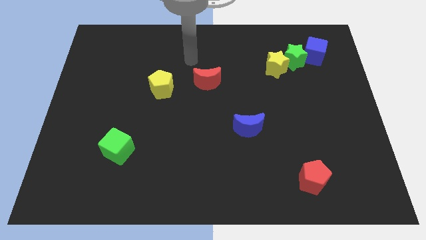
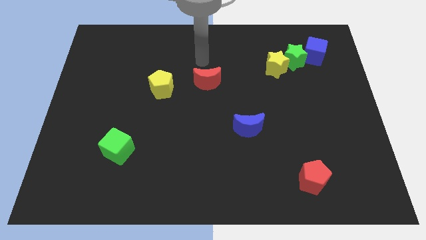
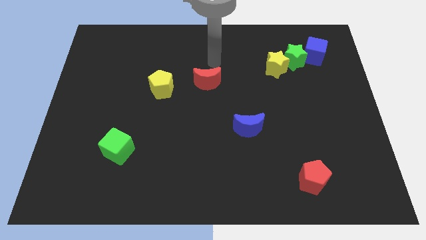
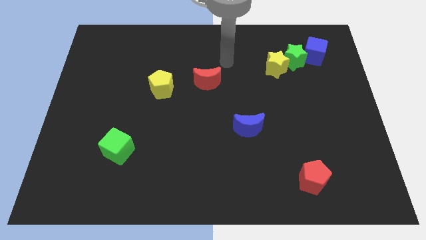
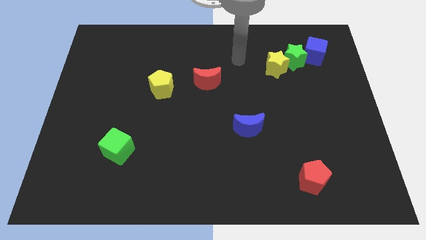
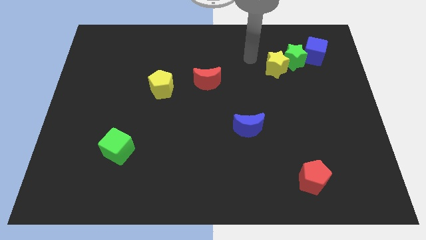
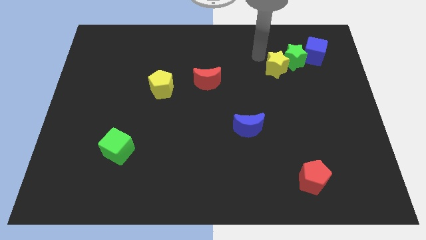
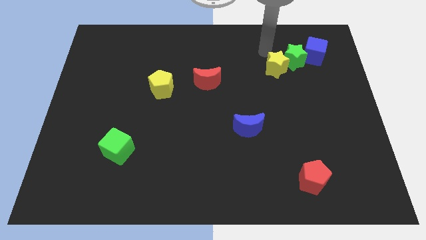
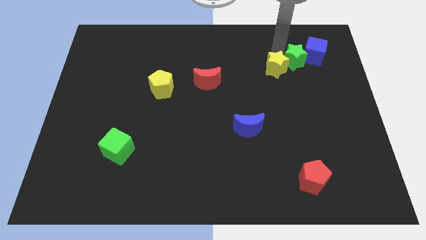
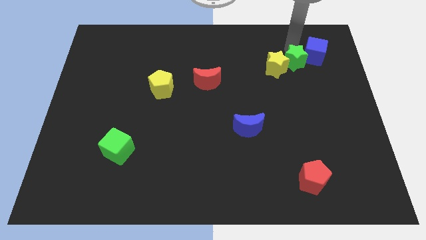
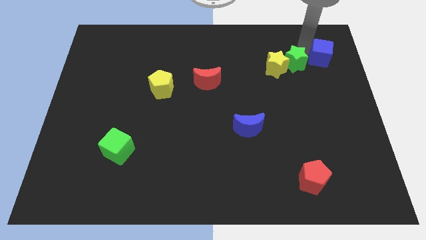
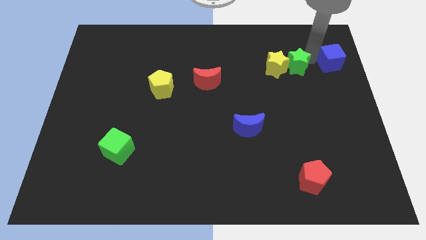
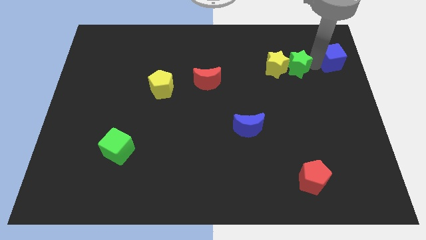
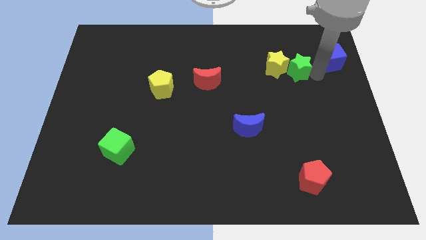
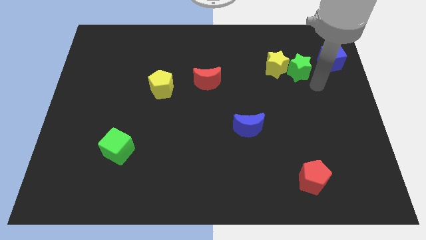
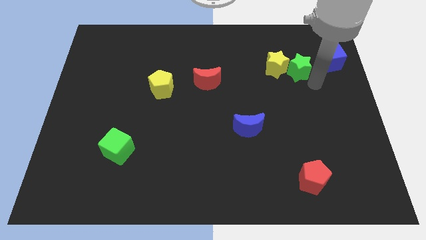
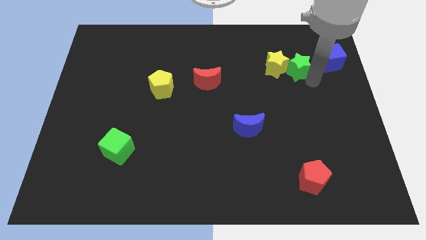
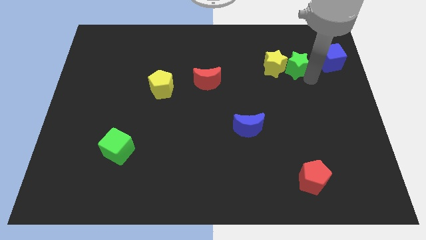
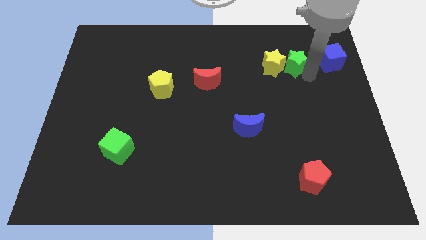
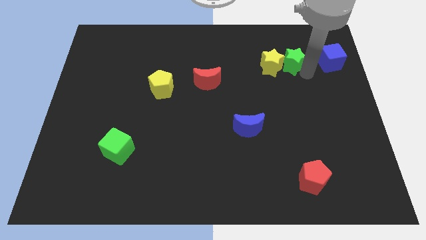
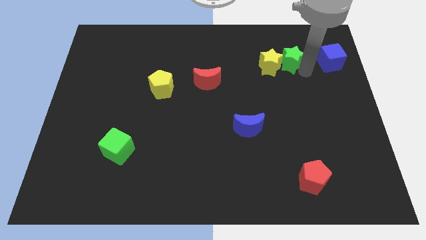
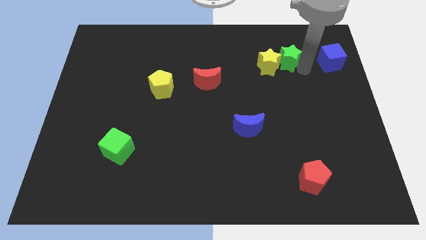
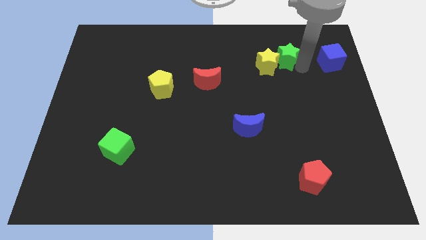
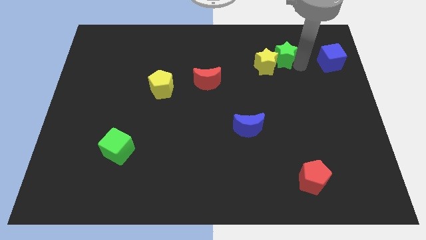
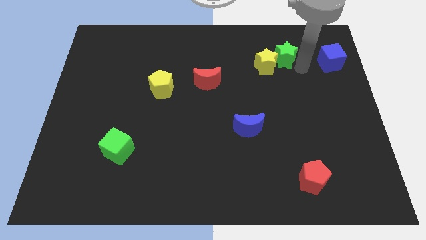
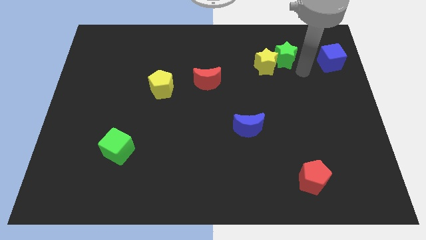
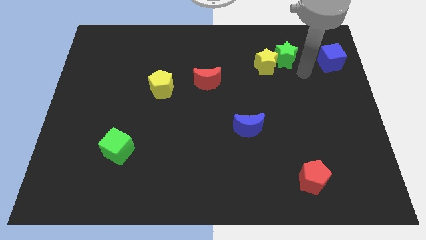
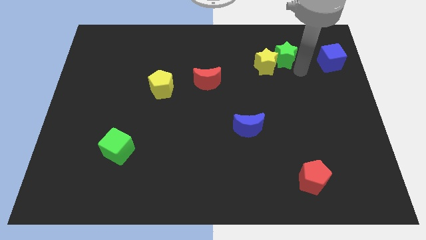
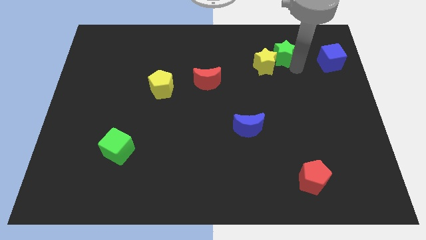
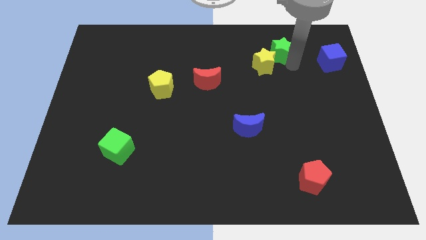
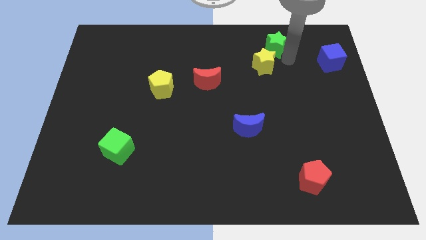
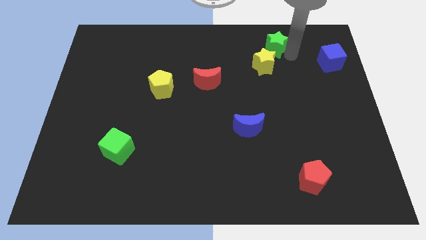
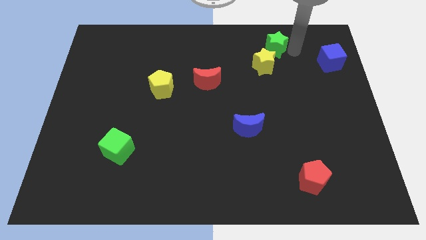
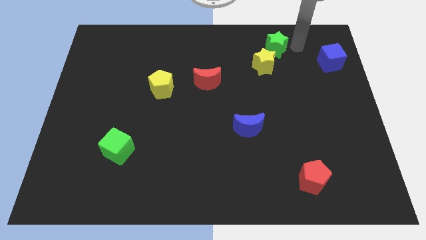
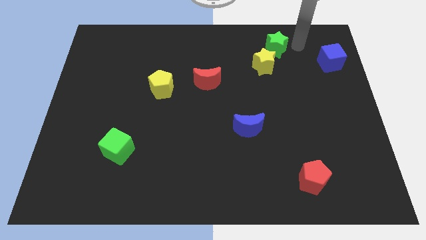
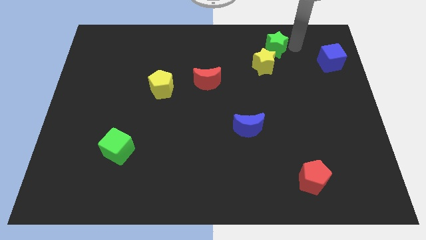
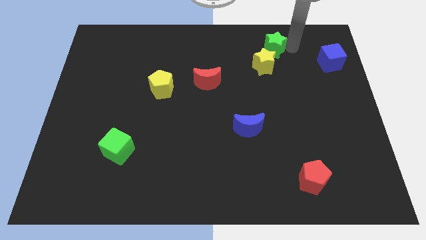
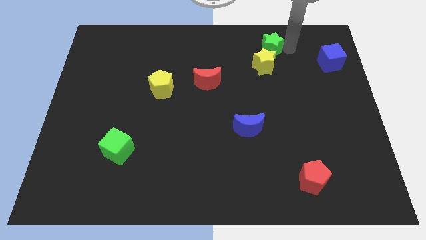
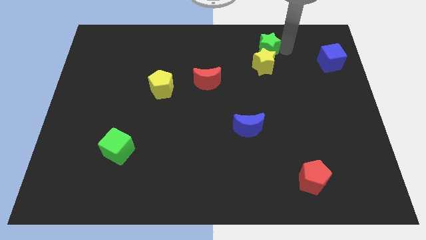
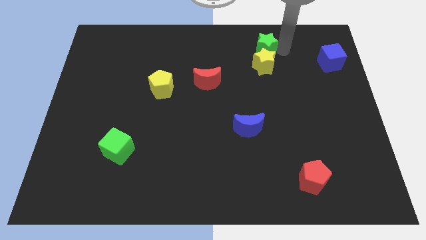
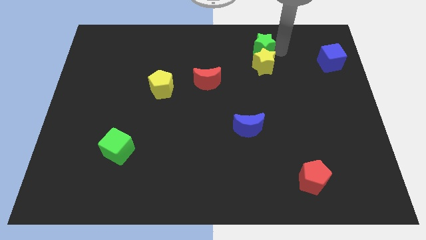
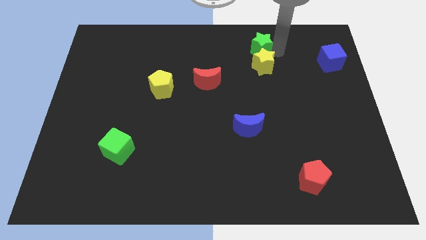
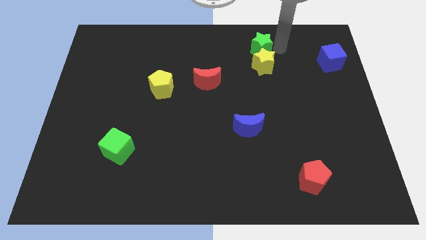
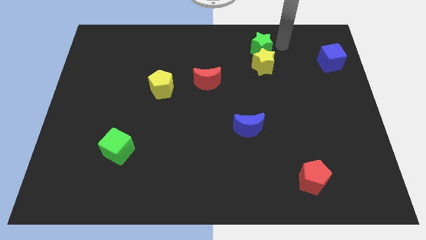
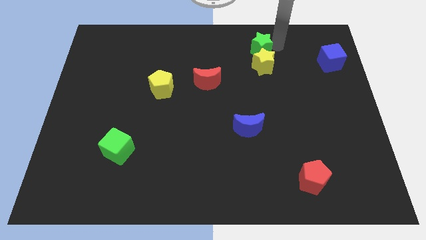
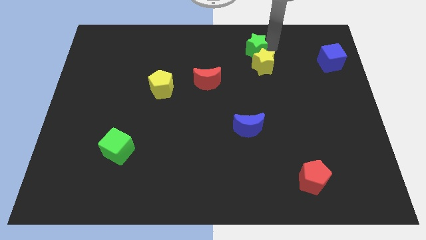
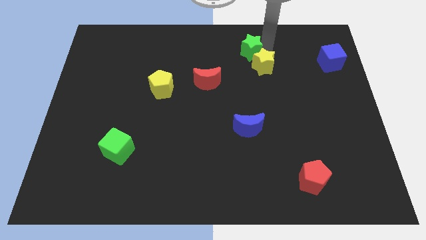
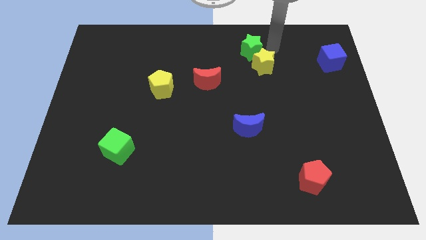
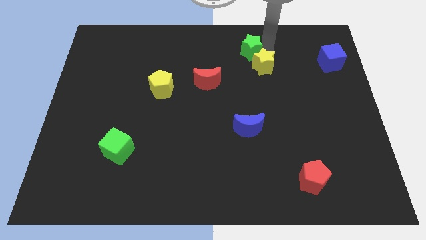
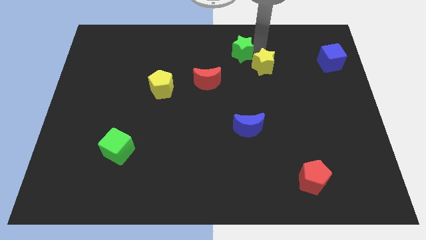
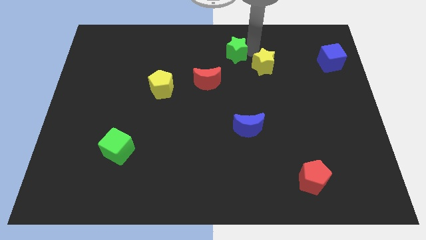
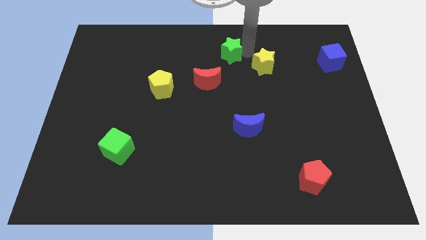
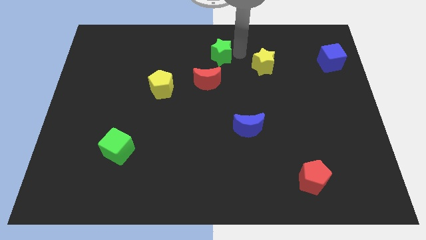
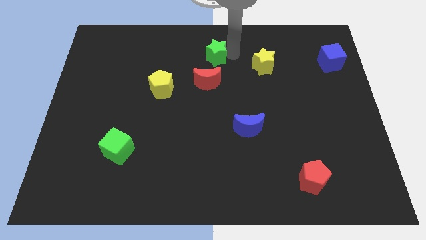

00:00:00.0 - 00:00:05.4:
push the green star to the left

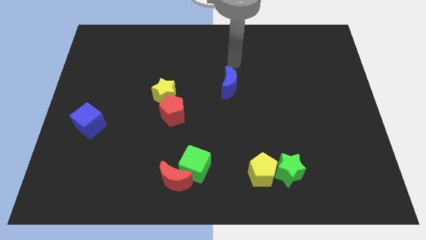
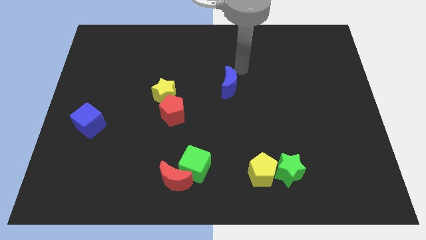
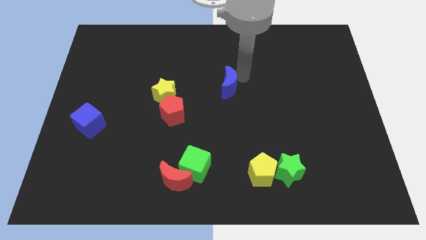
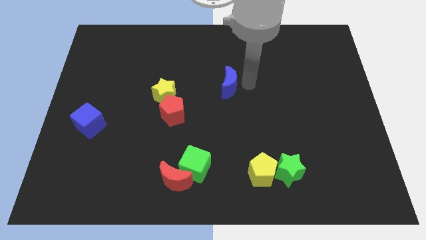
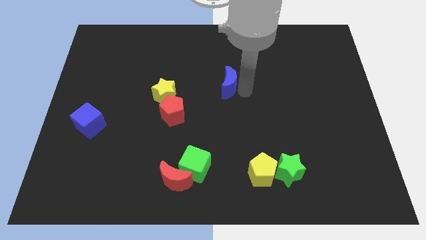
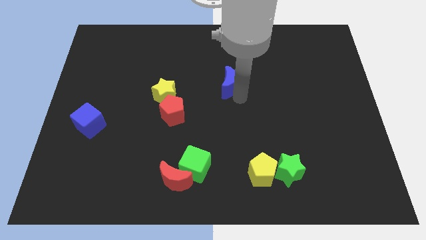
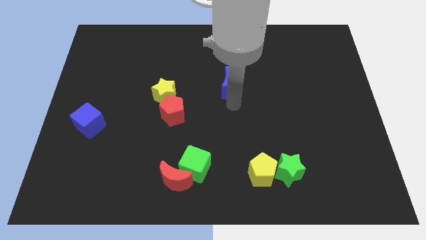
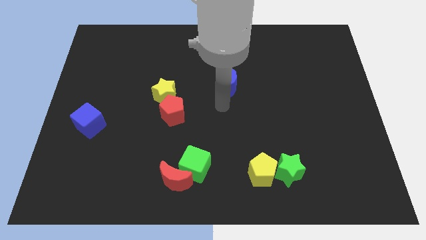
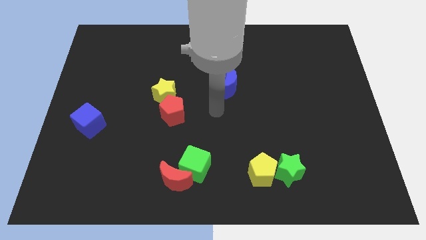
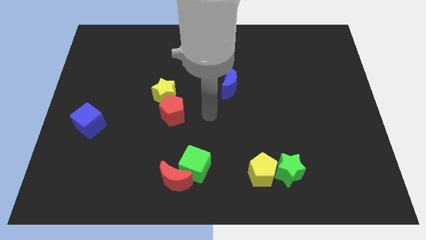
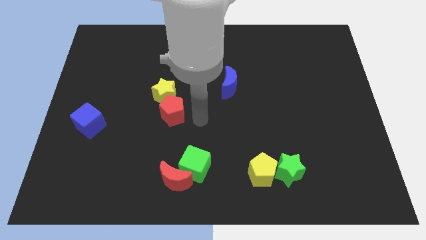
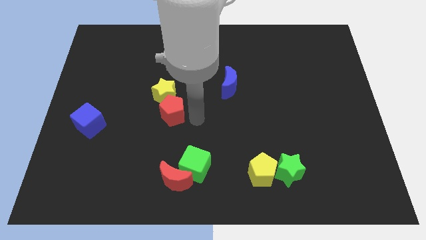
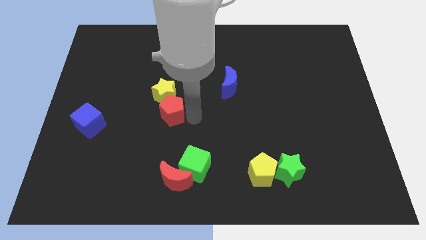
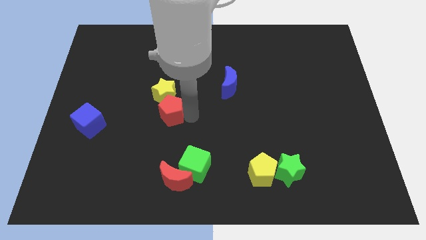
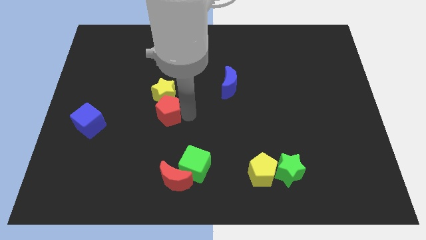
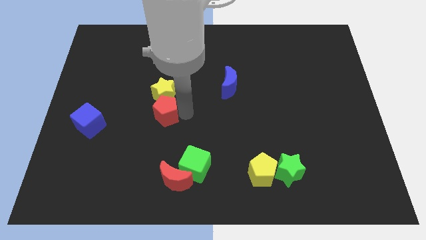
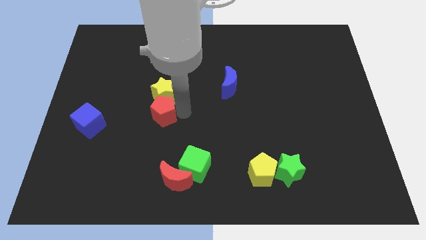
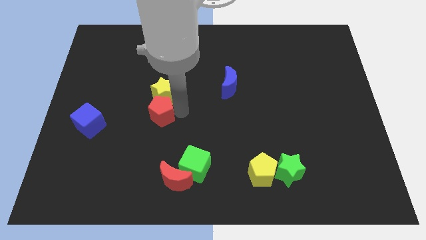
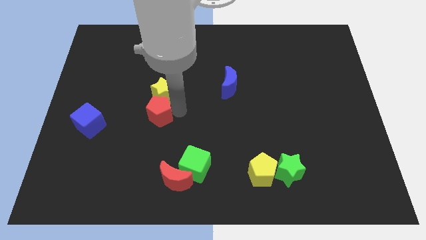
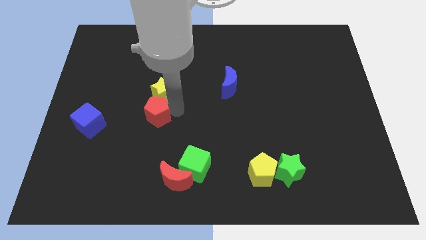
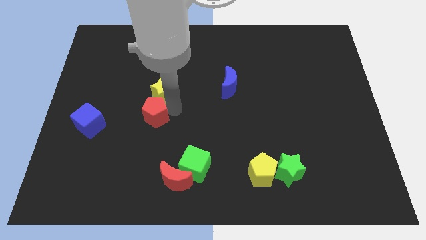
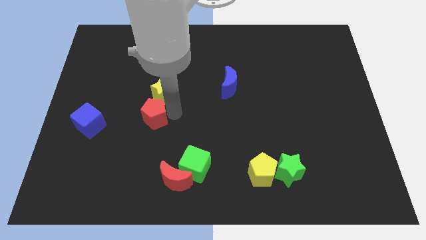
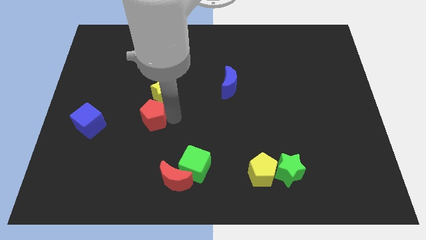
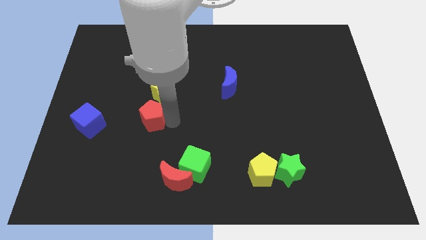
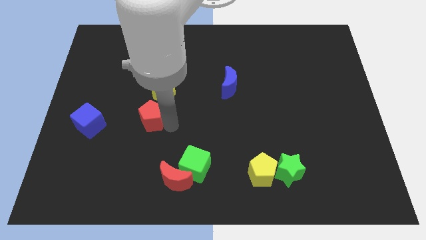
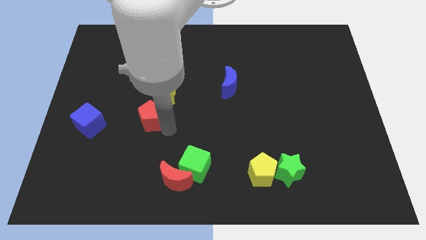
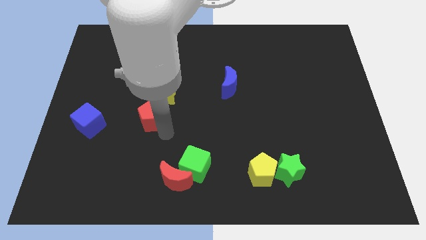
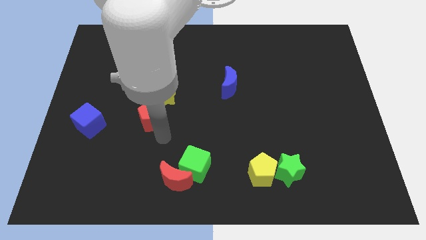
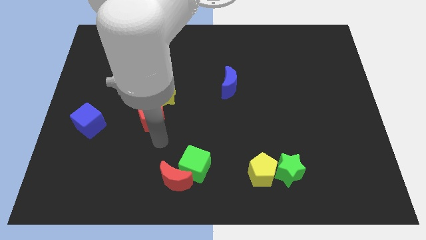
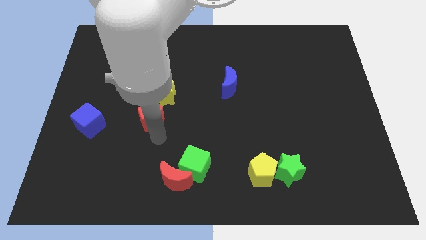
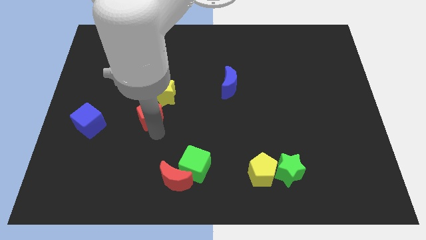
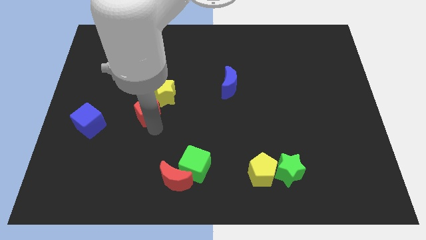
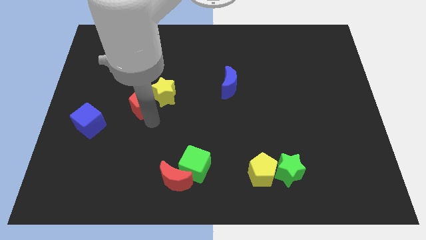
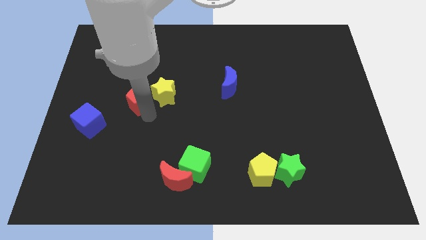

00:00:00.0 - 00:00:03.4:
slightly push the red pentagon up and then left
